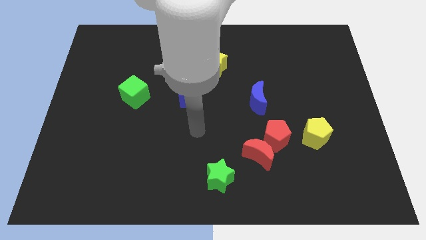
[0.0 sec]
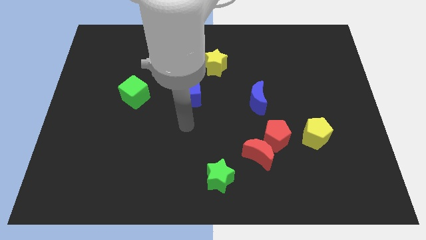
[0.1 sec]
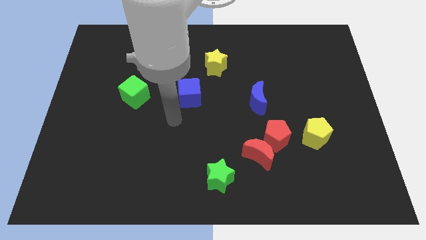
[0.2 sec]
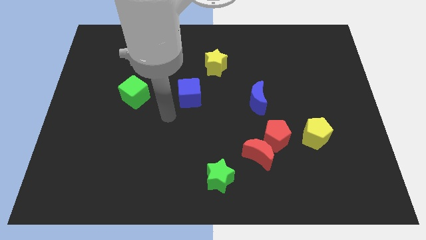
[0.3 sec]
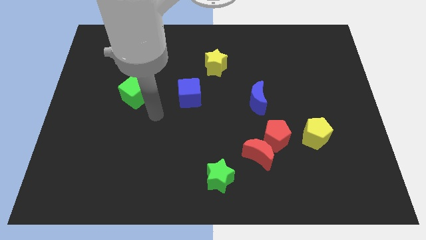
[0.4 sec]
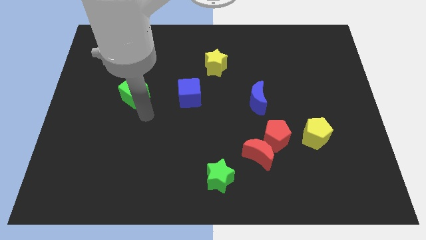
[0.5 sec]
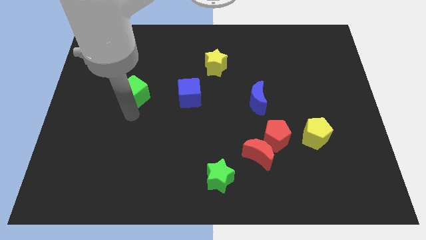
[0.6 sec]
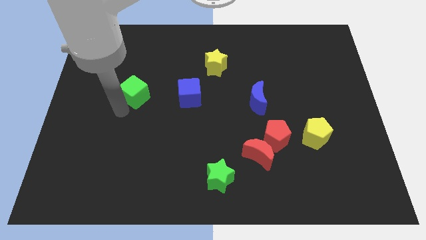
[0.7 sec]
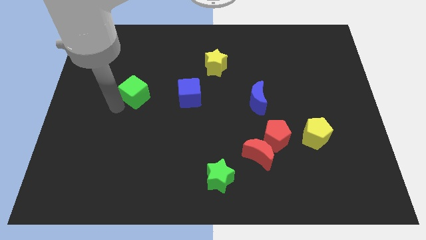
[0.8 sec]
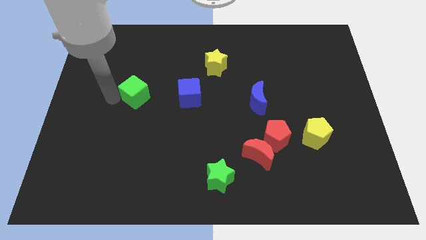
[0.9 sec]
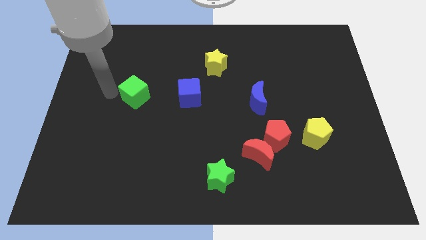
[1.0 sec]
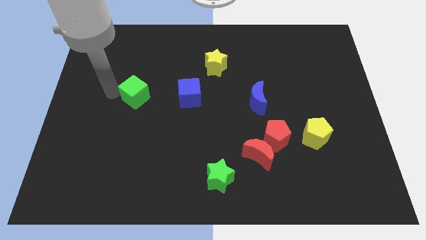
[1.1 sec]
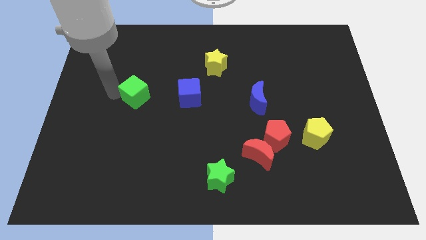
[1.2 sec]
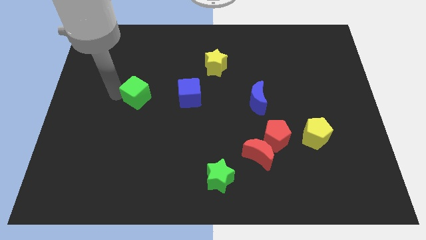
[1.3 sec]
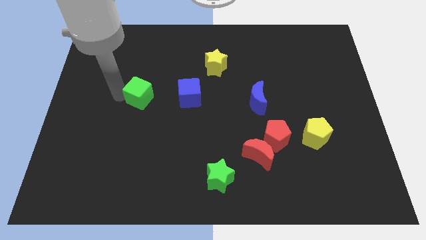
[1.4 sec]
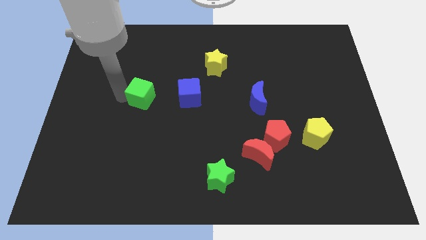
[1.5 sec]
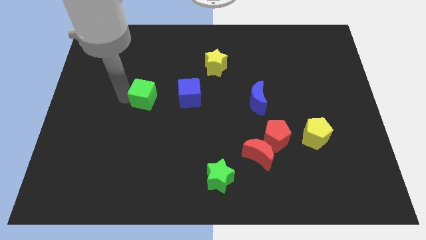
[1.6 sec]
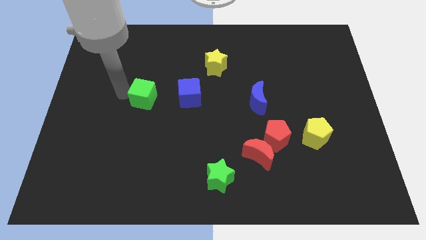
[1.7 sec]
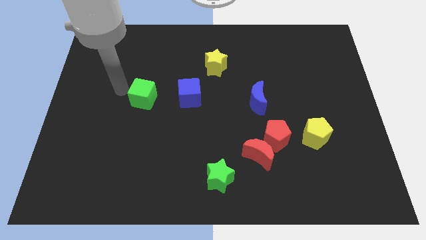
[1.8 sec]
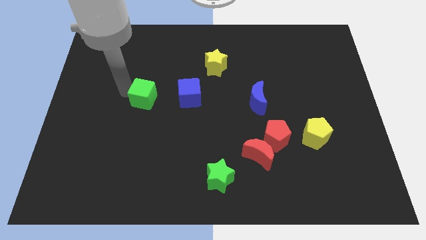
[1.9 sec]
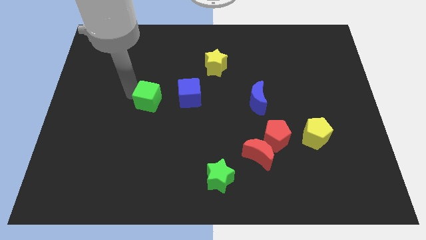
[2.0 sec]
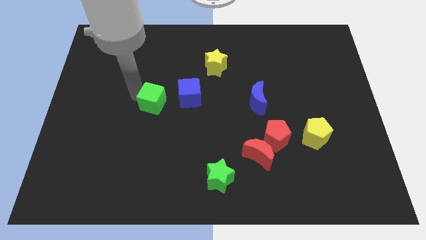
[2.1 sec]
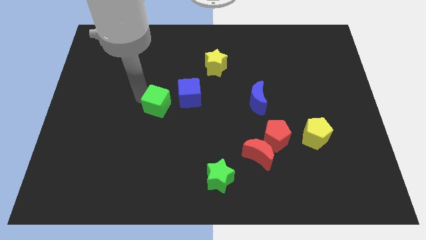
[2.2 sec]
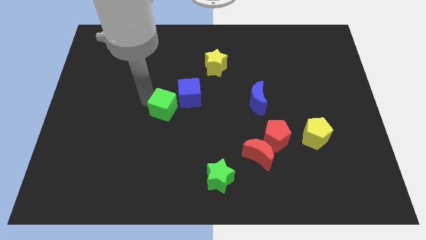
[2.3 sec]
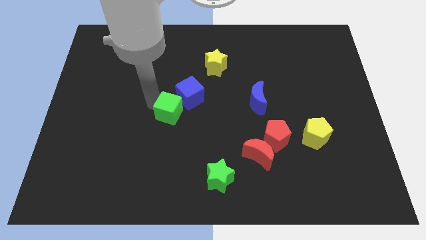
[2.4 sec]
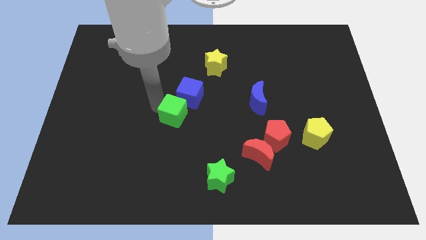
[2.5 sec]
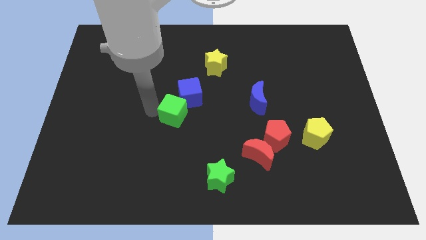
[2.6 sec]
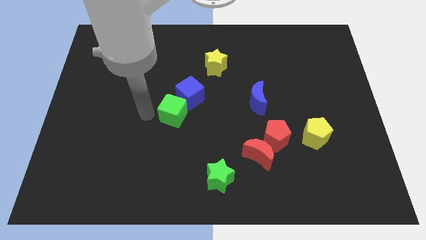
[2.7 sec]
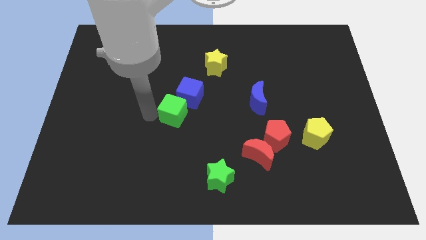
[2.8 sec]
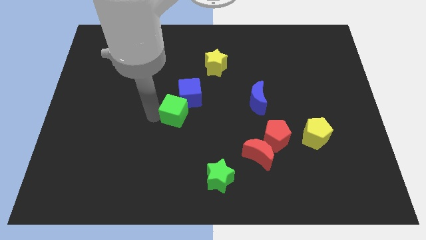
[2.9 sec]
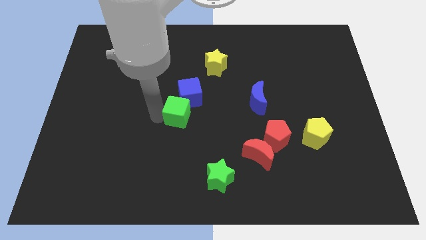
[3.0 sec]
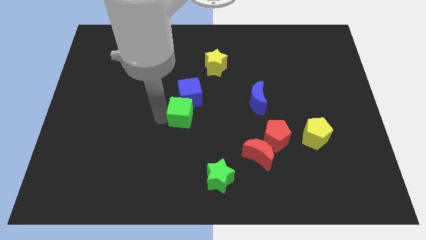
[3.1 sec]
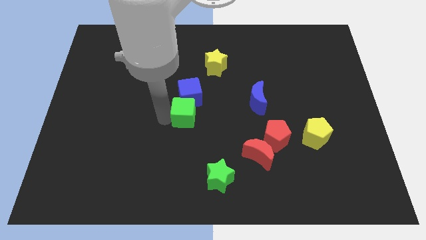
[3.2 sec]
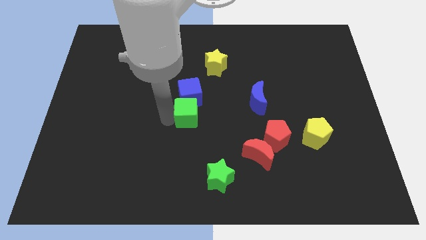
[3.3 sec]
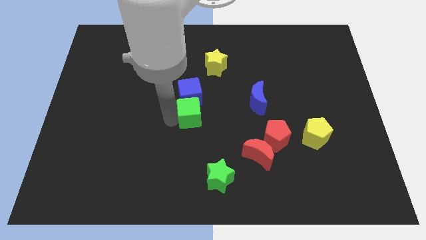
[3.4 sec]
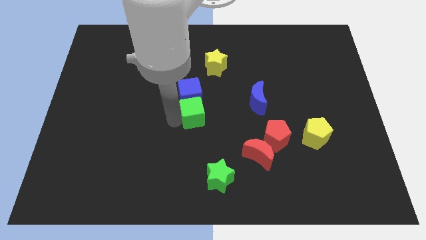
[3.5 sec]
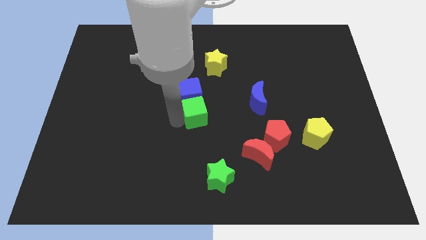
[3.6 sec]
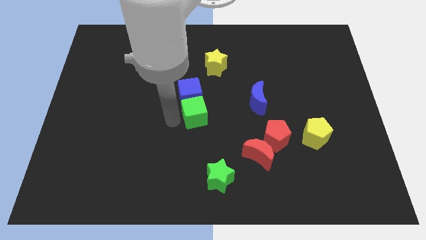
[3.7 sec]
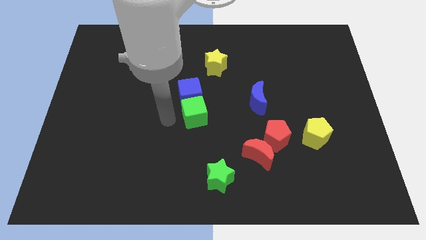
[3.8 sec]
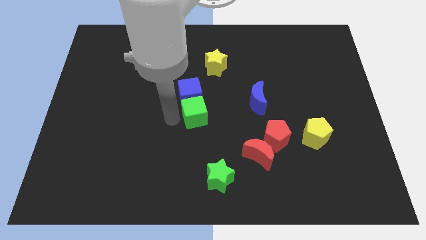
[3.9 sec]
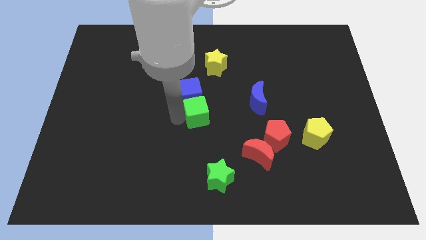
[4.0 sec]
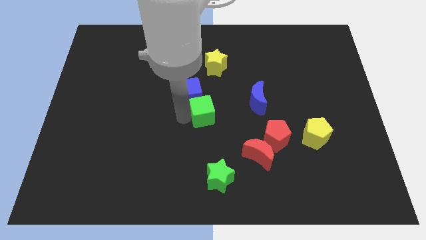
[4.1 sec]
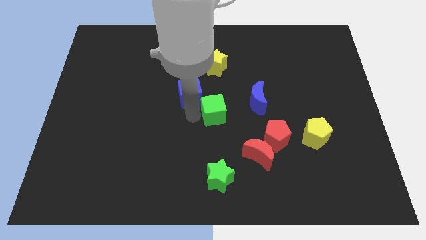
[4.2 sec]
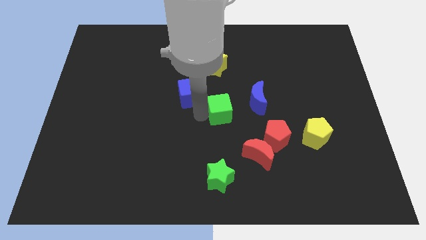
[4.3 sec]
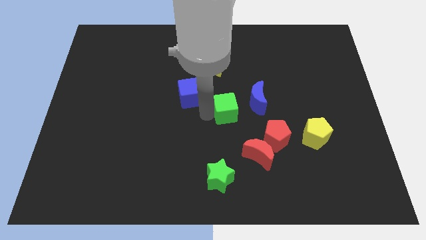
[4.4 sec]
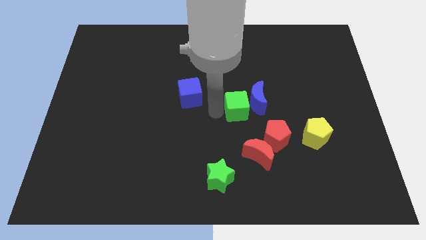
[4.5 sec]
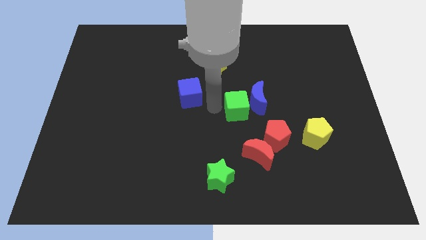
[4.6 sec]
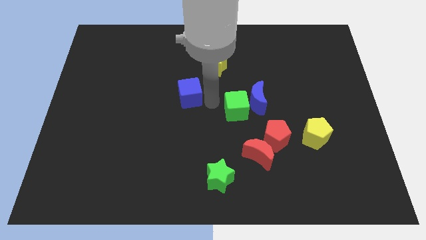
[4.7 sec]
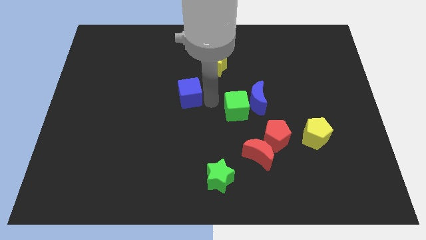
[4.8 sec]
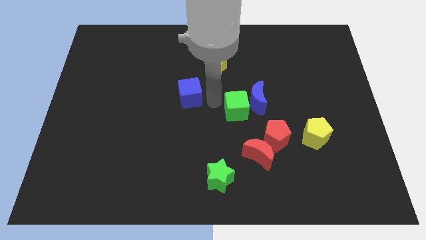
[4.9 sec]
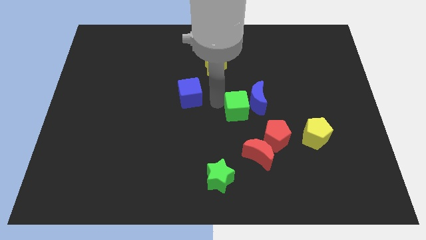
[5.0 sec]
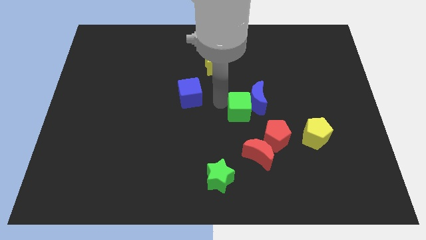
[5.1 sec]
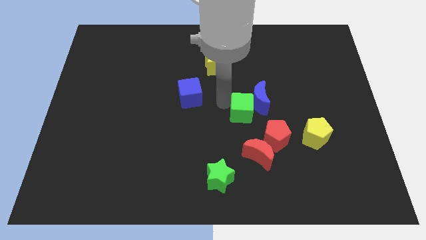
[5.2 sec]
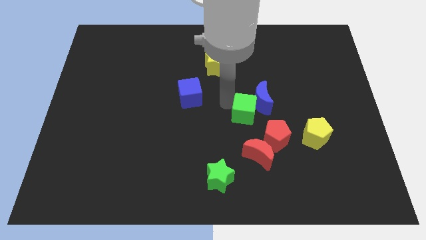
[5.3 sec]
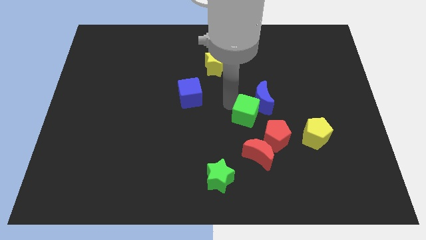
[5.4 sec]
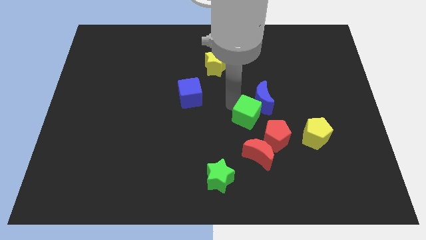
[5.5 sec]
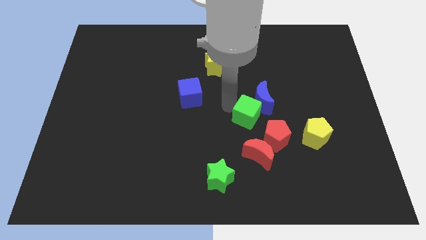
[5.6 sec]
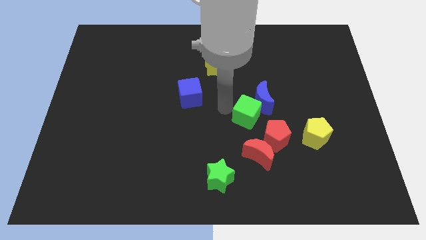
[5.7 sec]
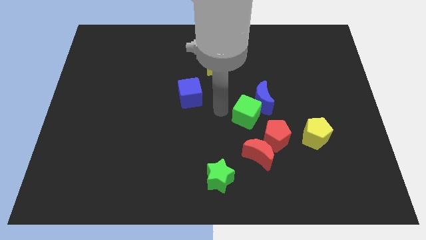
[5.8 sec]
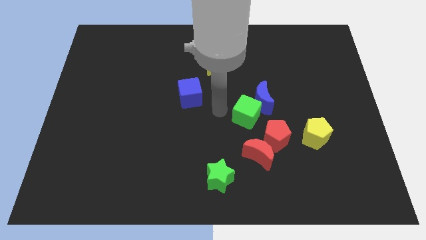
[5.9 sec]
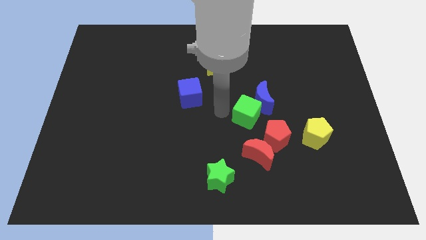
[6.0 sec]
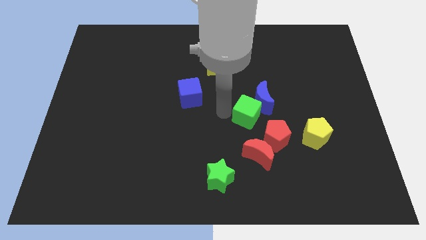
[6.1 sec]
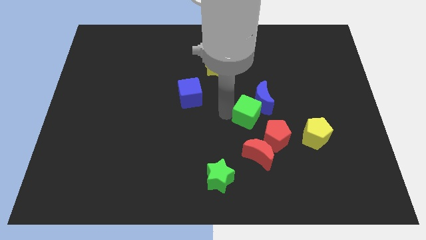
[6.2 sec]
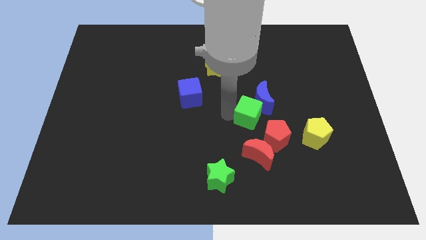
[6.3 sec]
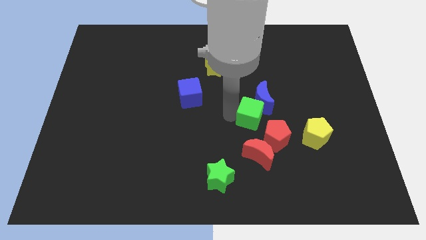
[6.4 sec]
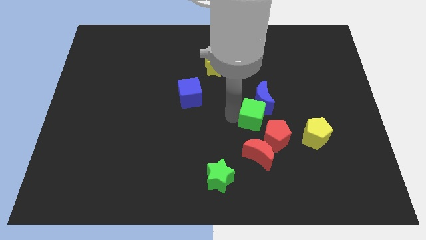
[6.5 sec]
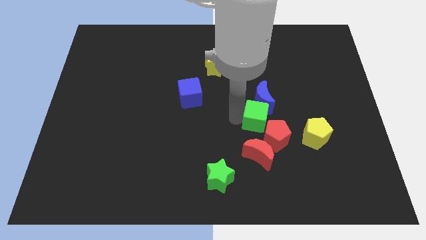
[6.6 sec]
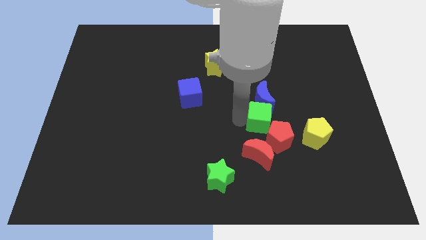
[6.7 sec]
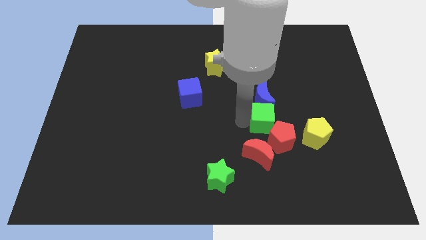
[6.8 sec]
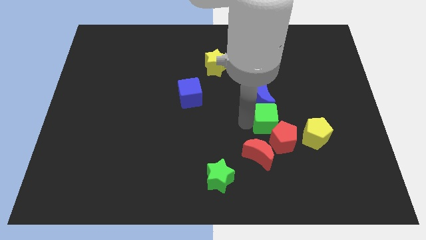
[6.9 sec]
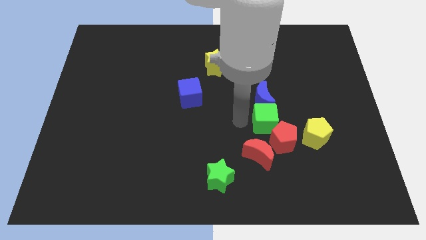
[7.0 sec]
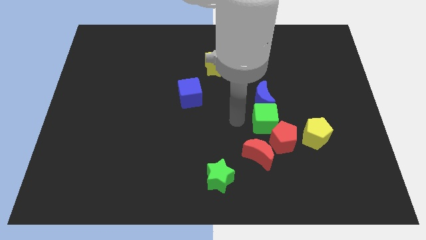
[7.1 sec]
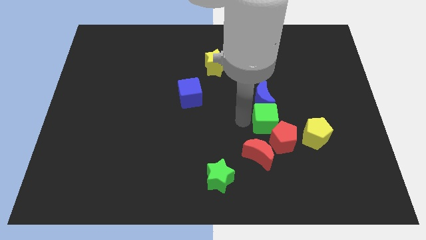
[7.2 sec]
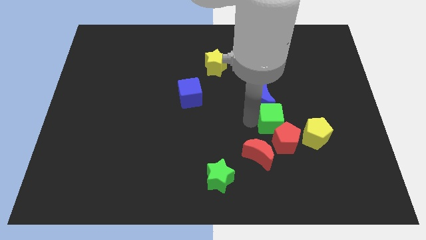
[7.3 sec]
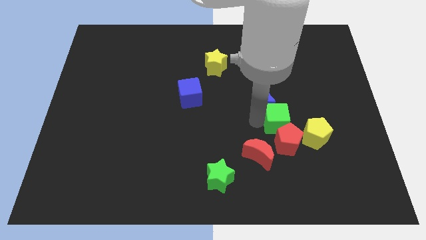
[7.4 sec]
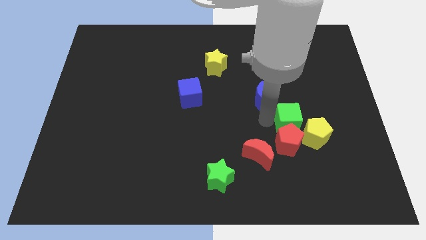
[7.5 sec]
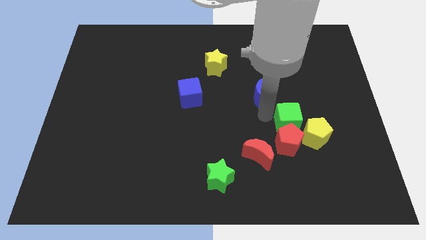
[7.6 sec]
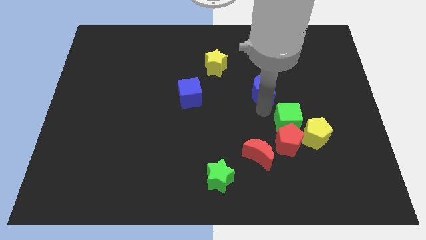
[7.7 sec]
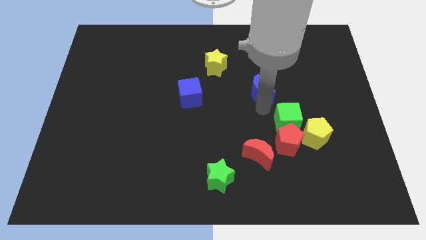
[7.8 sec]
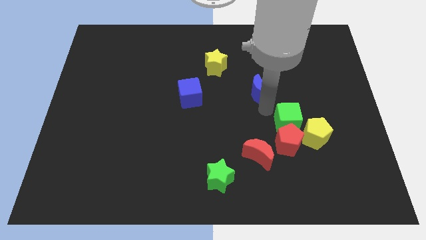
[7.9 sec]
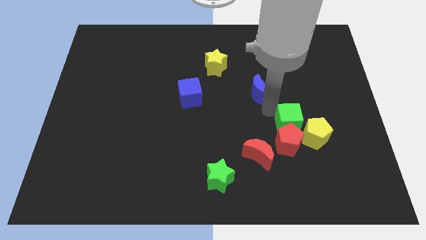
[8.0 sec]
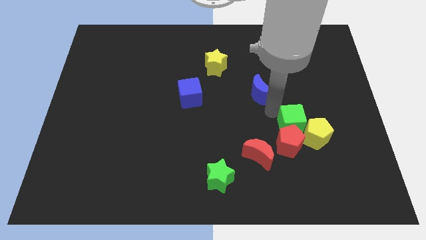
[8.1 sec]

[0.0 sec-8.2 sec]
push the green cube towards the yellow pentagon
